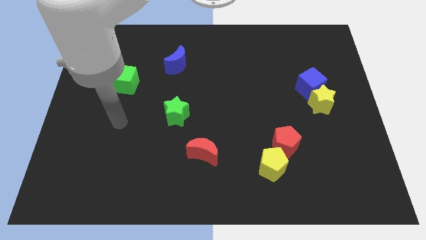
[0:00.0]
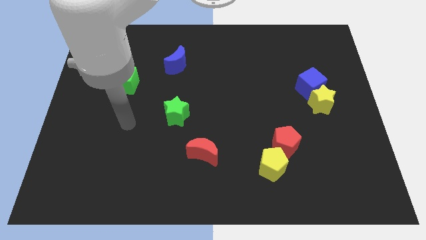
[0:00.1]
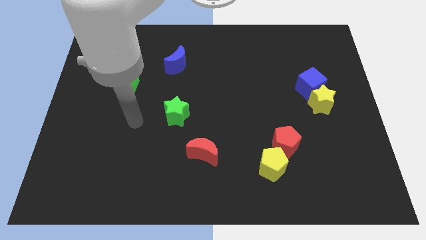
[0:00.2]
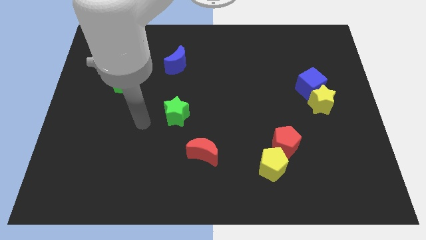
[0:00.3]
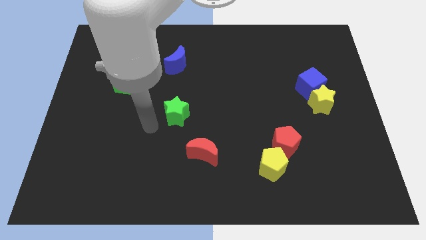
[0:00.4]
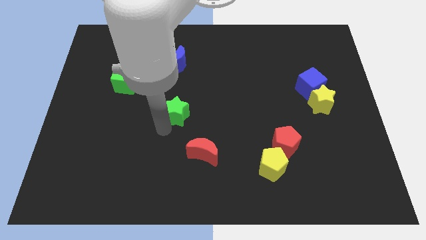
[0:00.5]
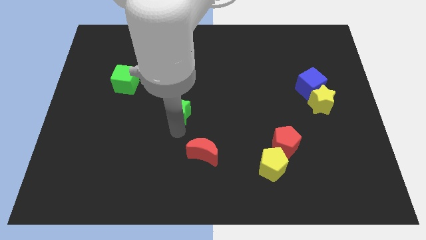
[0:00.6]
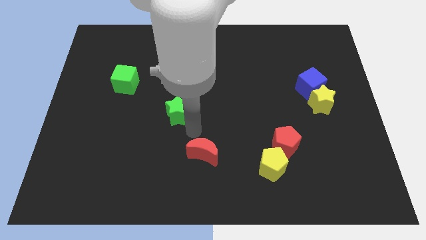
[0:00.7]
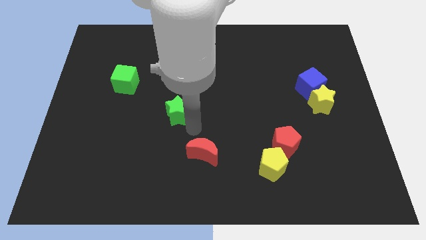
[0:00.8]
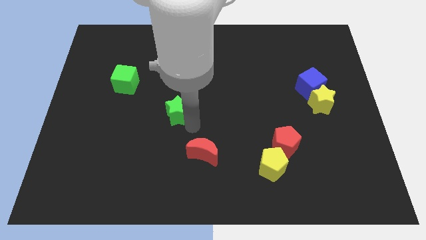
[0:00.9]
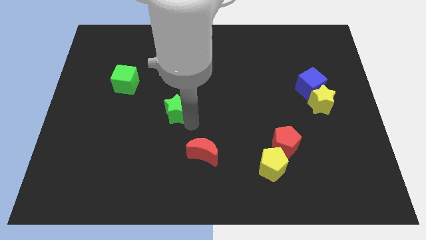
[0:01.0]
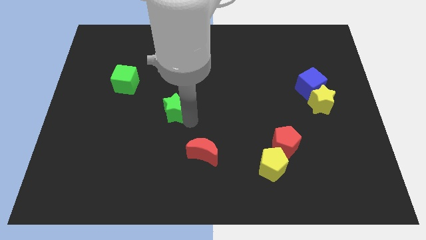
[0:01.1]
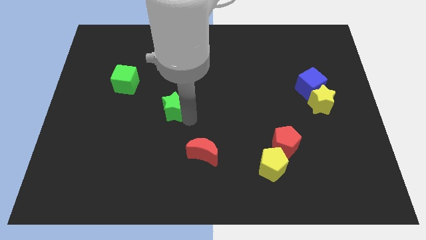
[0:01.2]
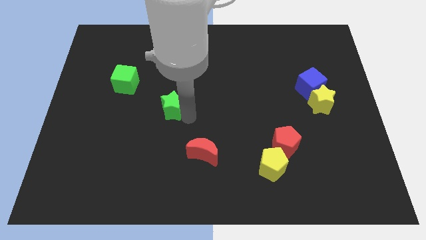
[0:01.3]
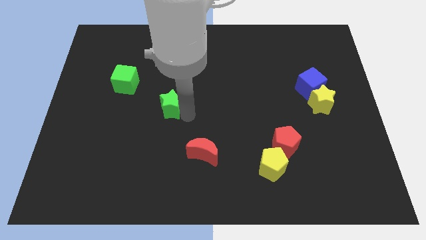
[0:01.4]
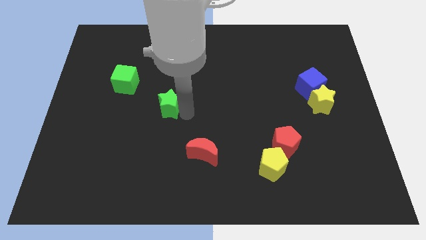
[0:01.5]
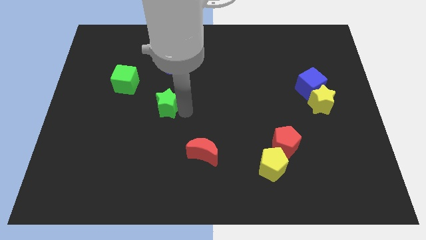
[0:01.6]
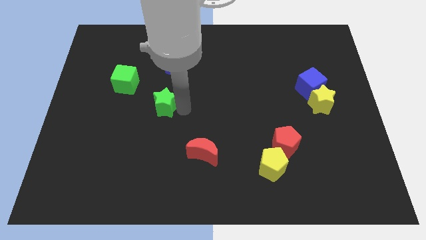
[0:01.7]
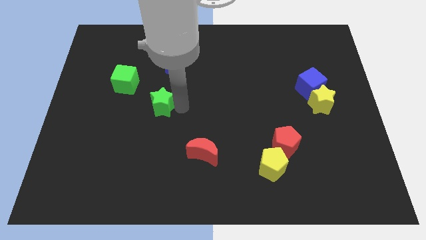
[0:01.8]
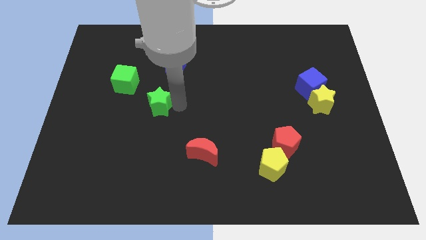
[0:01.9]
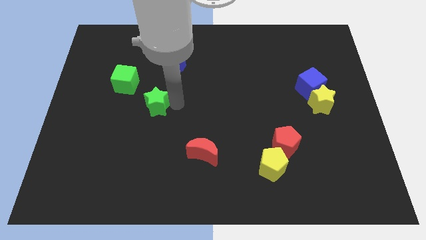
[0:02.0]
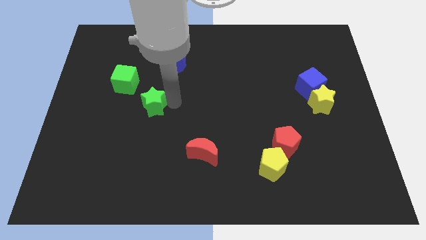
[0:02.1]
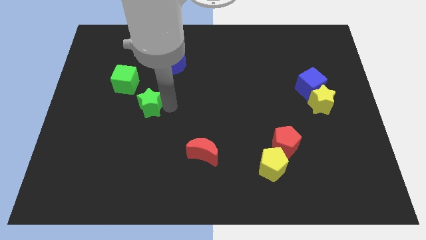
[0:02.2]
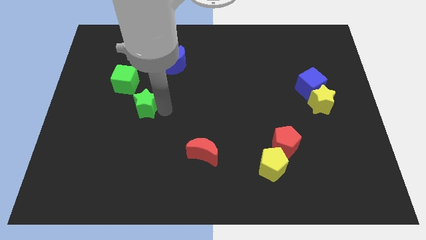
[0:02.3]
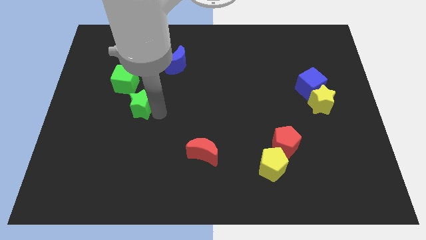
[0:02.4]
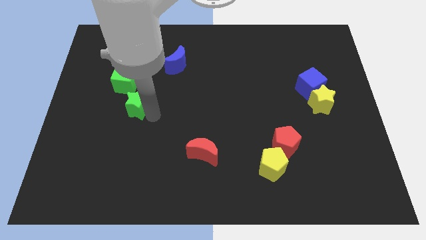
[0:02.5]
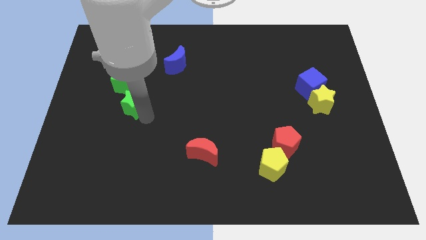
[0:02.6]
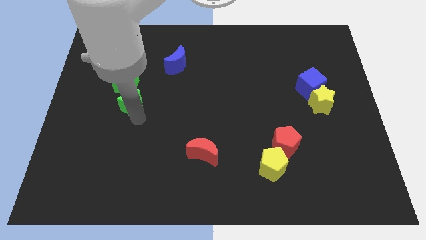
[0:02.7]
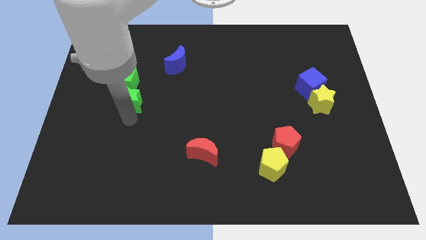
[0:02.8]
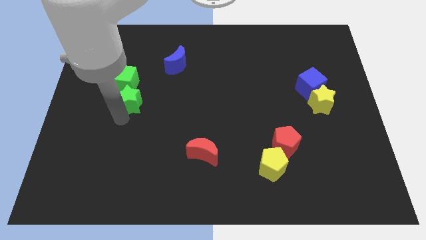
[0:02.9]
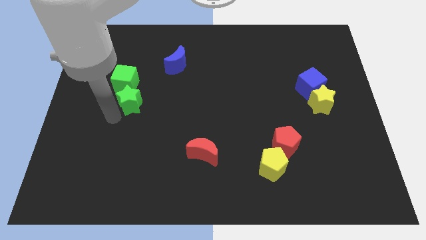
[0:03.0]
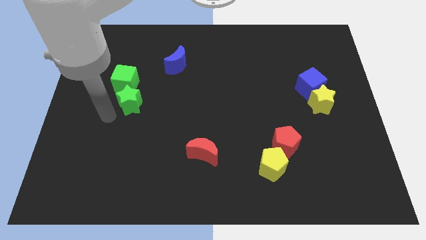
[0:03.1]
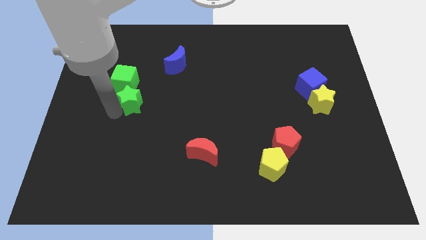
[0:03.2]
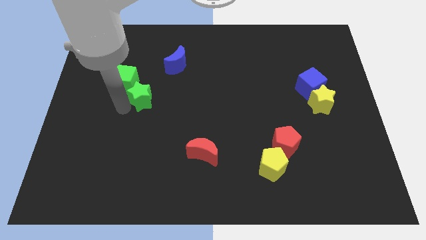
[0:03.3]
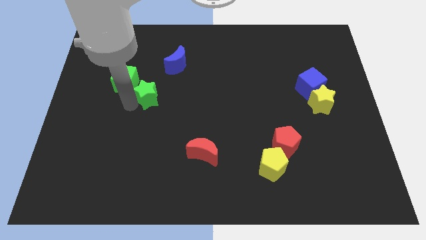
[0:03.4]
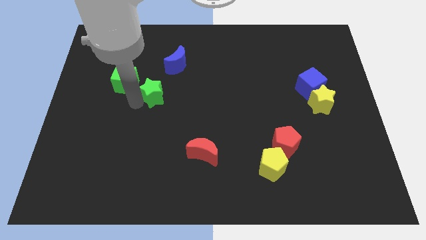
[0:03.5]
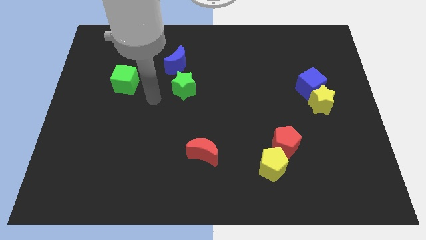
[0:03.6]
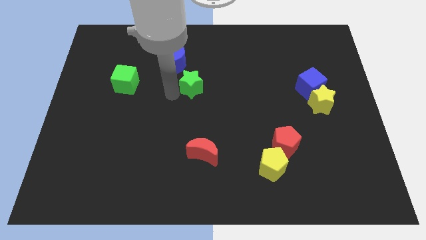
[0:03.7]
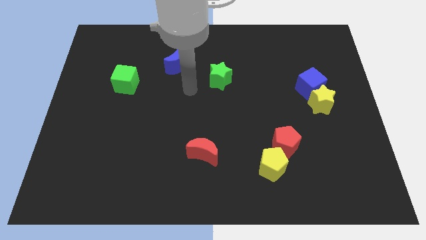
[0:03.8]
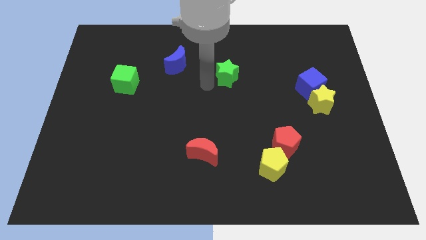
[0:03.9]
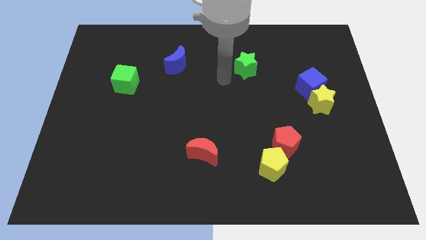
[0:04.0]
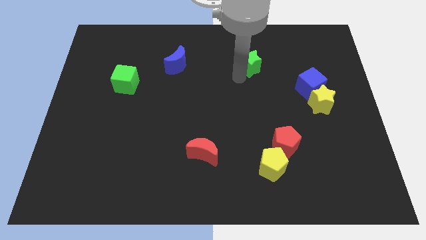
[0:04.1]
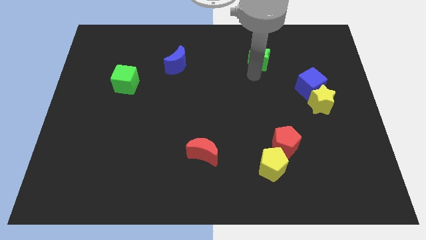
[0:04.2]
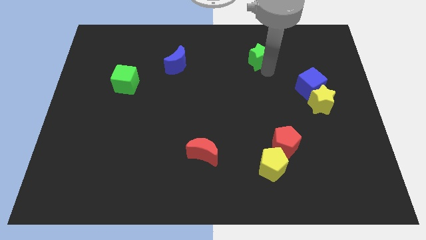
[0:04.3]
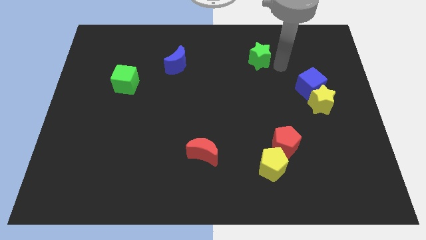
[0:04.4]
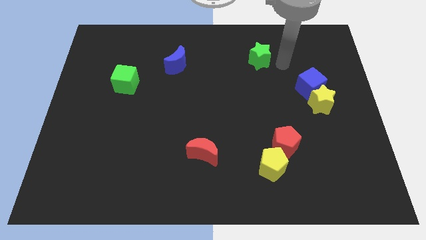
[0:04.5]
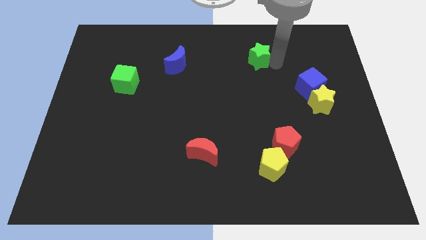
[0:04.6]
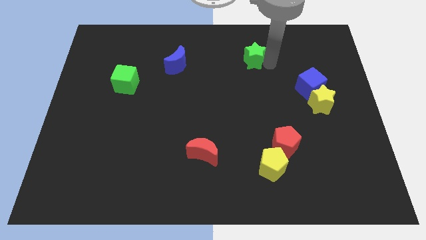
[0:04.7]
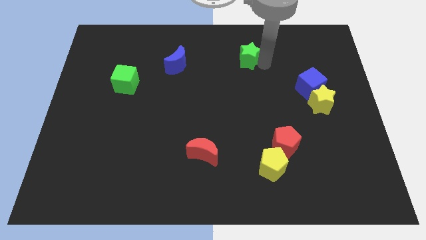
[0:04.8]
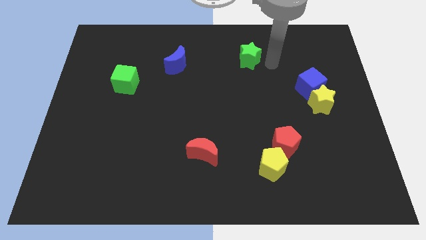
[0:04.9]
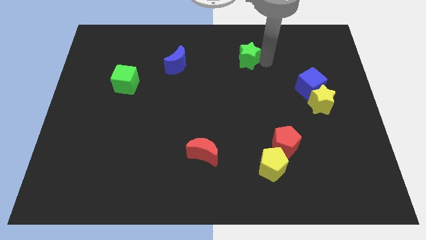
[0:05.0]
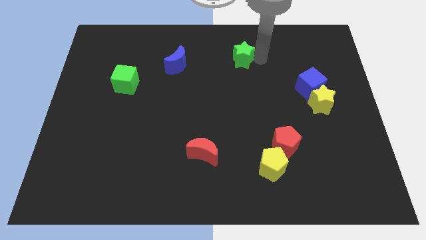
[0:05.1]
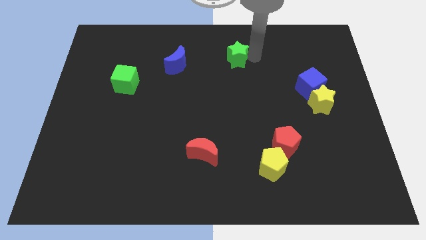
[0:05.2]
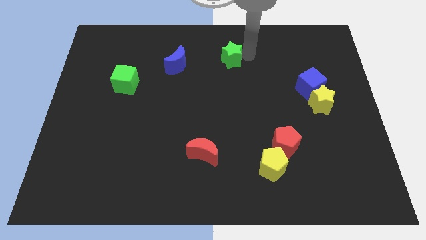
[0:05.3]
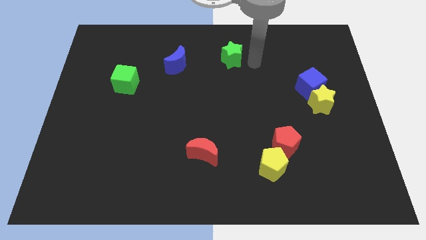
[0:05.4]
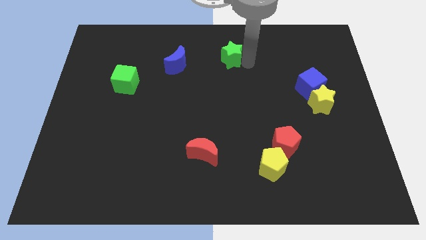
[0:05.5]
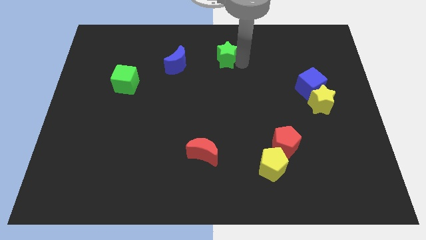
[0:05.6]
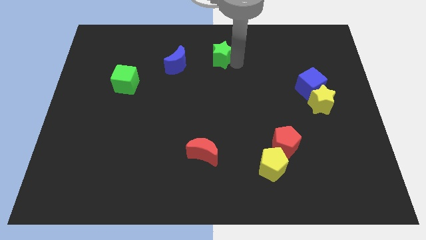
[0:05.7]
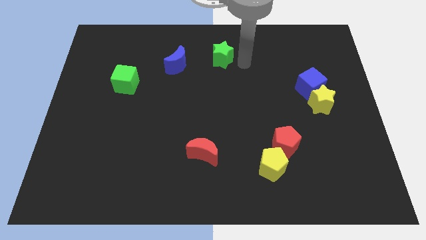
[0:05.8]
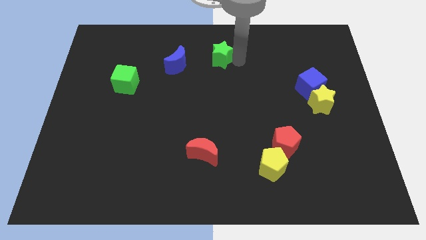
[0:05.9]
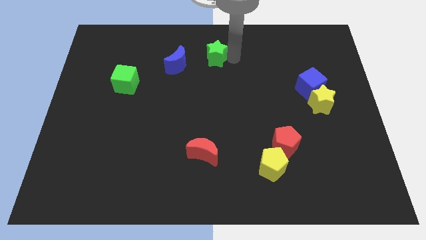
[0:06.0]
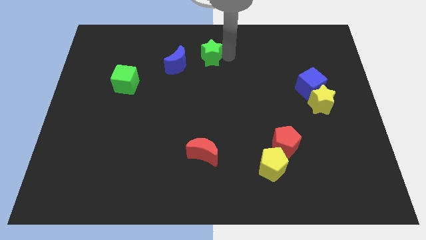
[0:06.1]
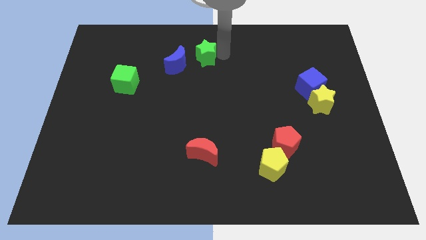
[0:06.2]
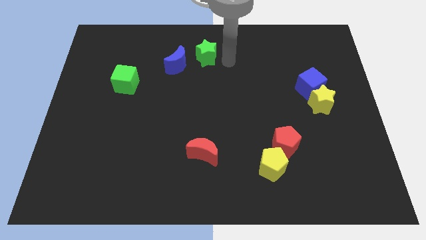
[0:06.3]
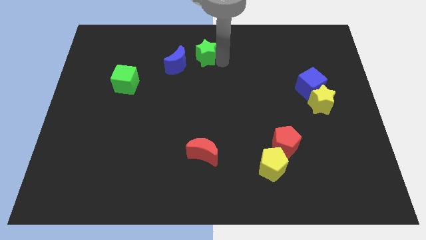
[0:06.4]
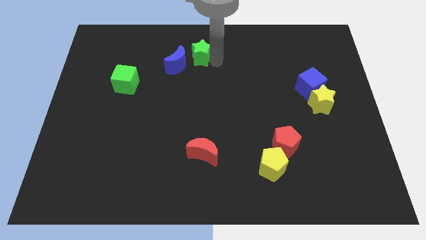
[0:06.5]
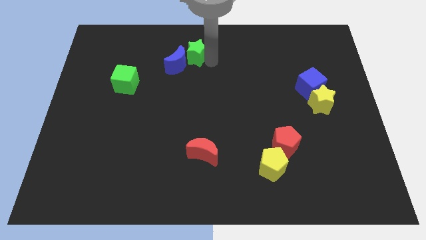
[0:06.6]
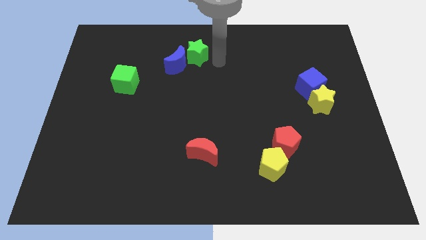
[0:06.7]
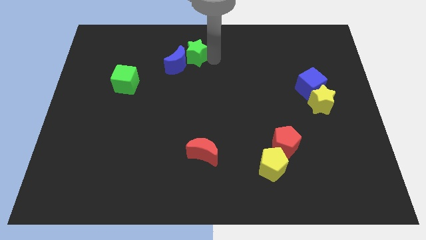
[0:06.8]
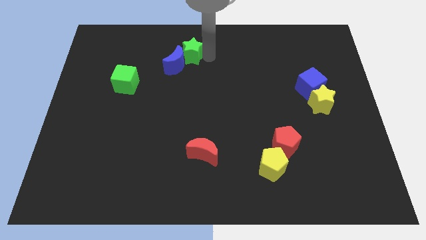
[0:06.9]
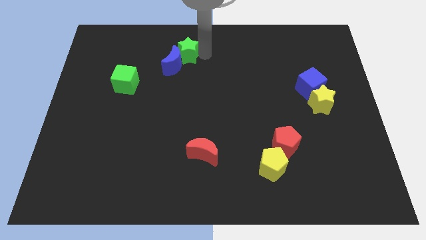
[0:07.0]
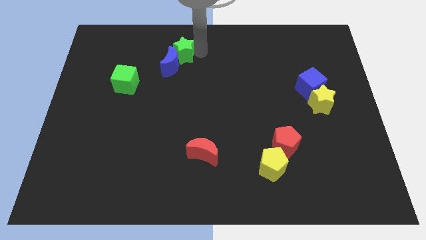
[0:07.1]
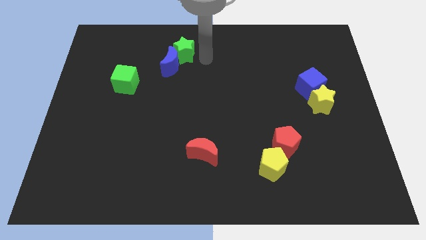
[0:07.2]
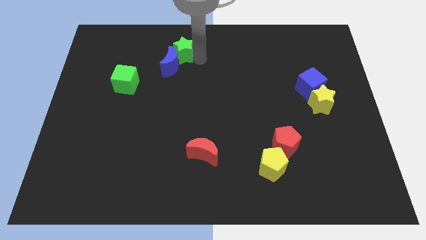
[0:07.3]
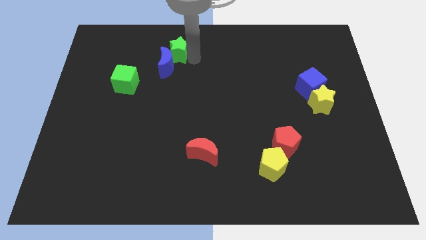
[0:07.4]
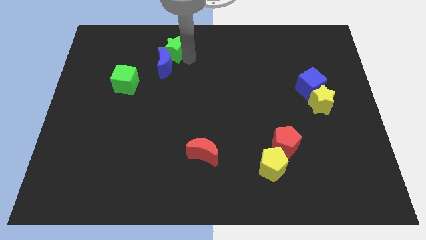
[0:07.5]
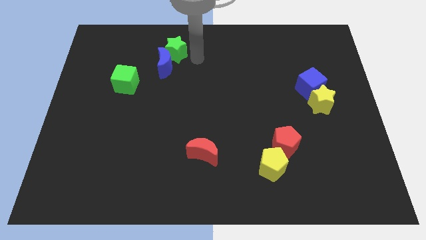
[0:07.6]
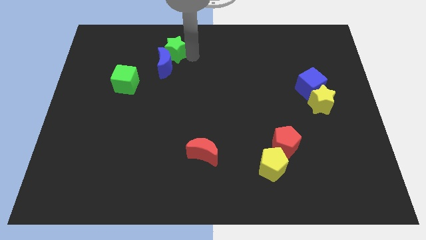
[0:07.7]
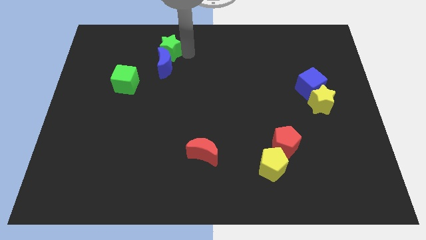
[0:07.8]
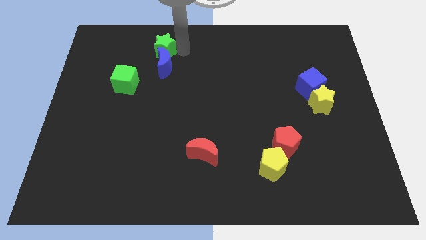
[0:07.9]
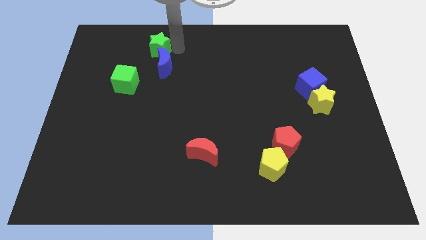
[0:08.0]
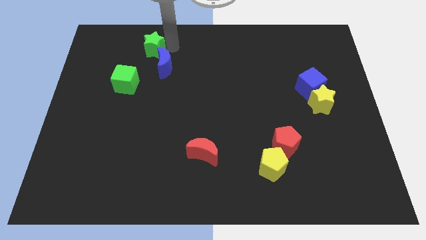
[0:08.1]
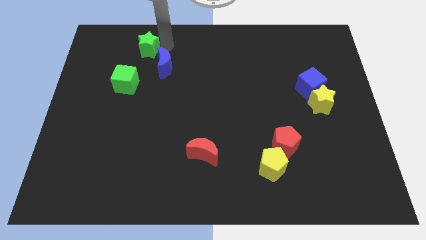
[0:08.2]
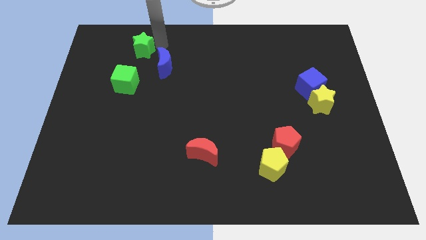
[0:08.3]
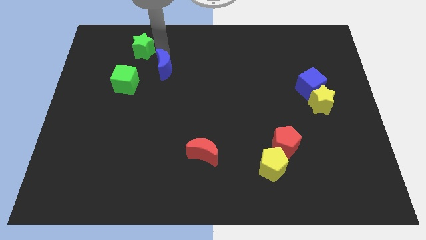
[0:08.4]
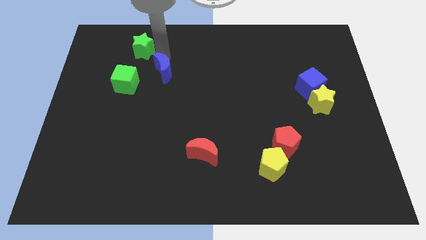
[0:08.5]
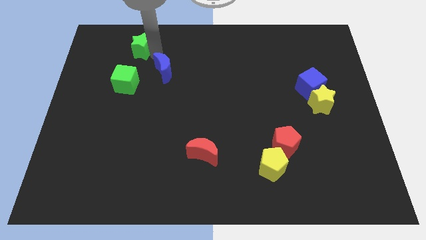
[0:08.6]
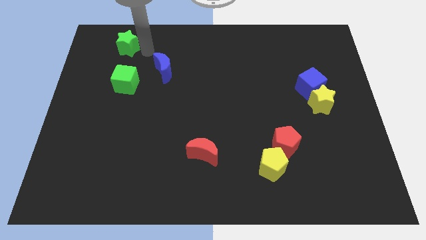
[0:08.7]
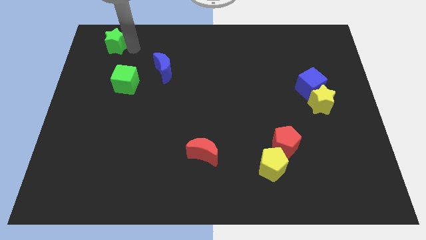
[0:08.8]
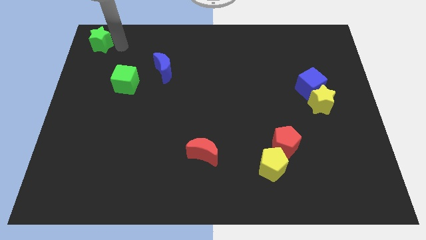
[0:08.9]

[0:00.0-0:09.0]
push the green star to the upper left corner
